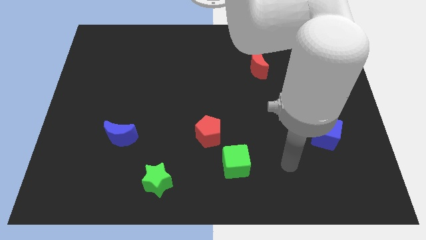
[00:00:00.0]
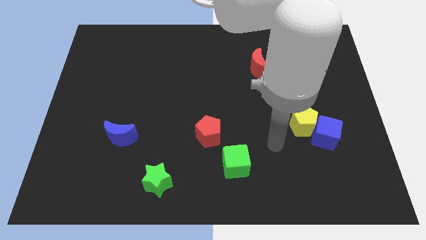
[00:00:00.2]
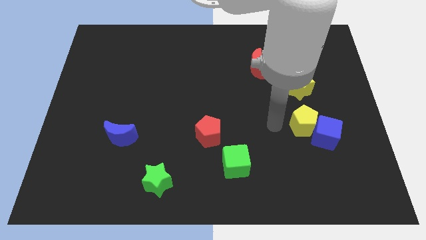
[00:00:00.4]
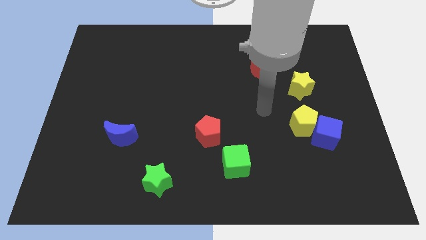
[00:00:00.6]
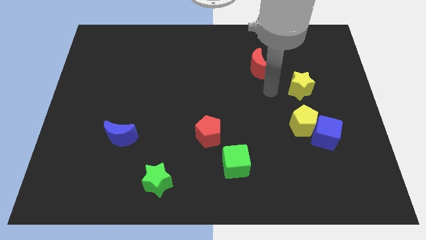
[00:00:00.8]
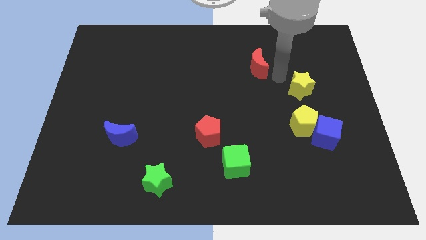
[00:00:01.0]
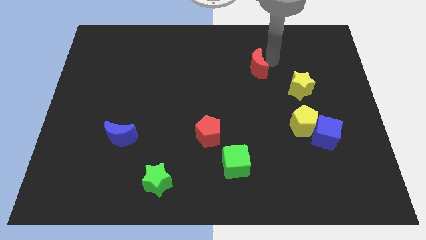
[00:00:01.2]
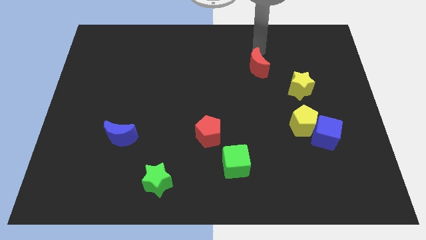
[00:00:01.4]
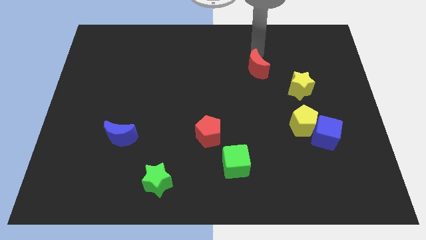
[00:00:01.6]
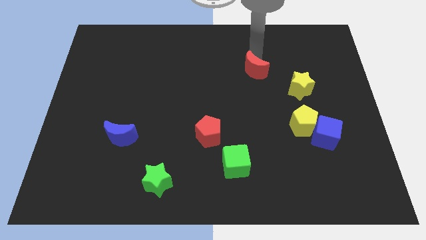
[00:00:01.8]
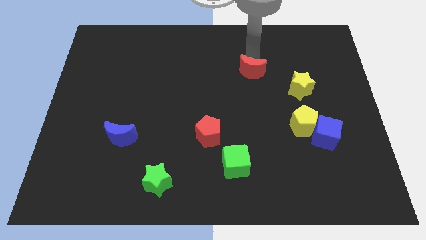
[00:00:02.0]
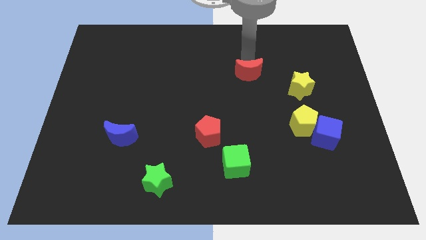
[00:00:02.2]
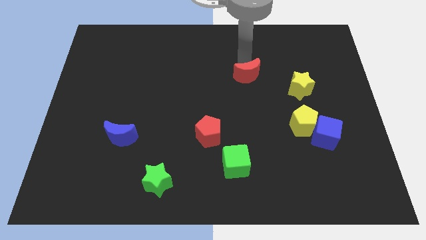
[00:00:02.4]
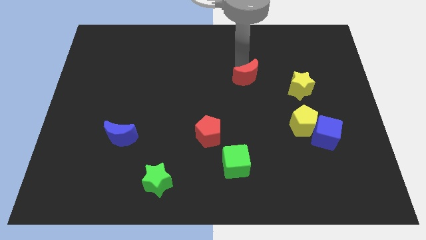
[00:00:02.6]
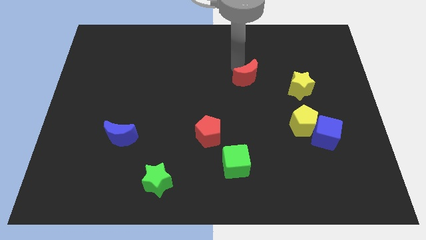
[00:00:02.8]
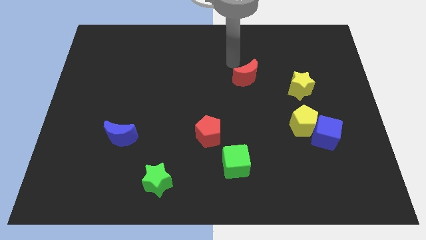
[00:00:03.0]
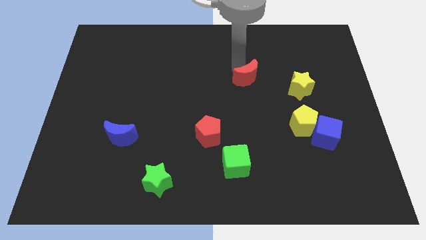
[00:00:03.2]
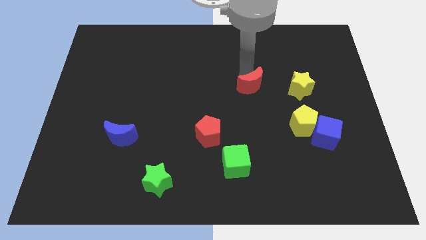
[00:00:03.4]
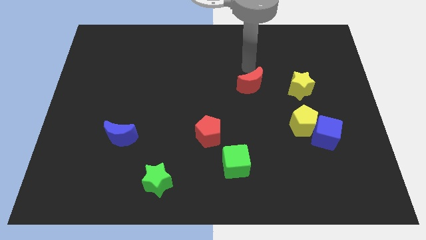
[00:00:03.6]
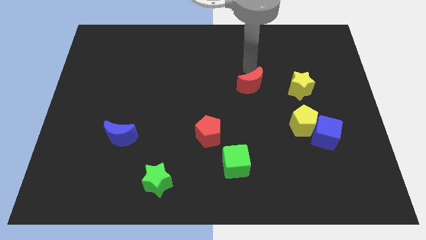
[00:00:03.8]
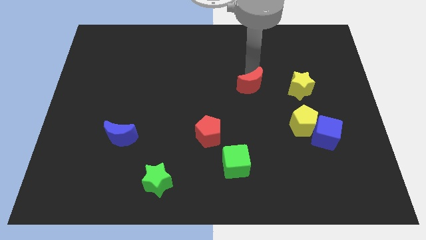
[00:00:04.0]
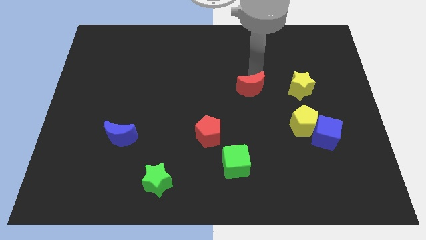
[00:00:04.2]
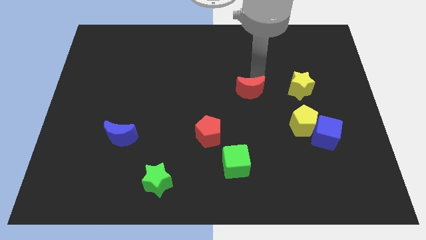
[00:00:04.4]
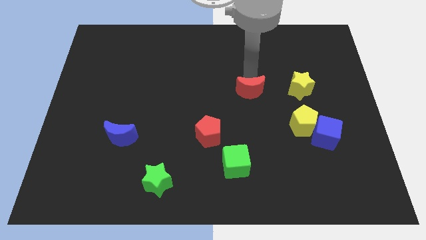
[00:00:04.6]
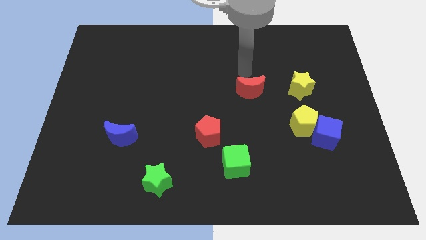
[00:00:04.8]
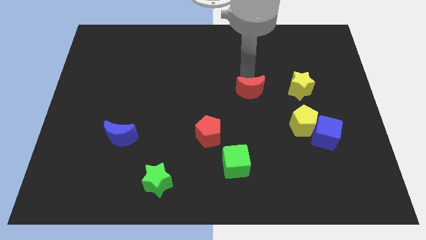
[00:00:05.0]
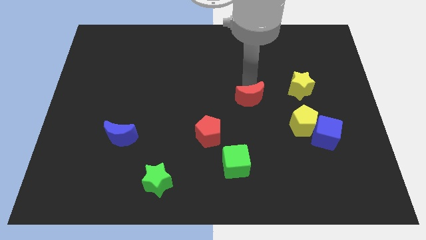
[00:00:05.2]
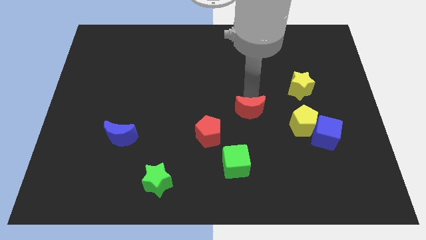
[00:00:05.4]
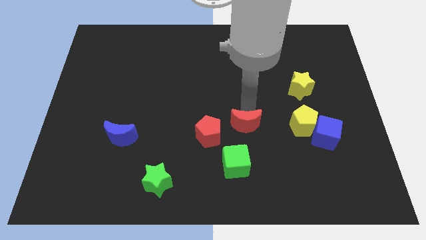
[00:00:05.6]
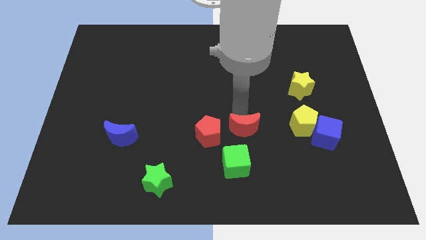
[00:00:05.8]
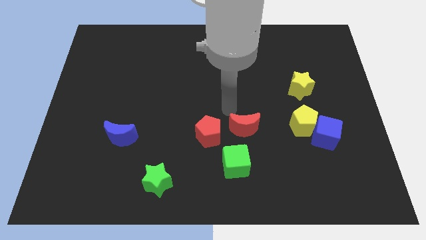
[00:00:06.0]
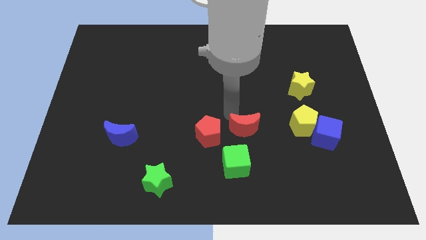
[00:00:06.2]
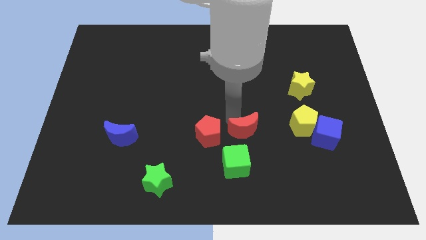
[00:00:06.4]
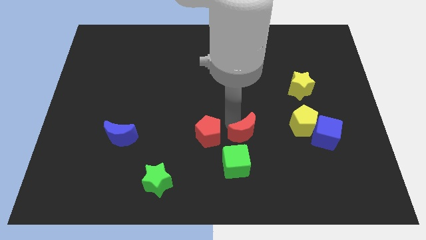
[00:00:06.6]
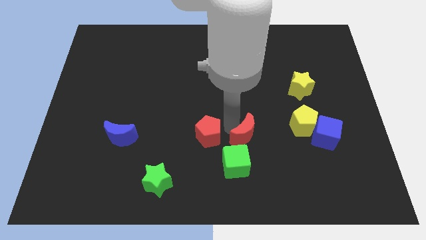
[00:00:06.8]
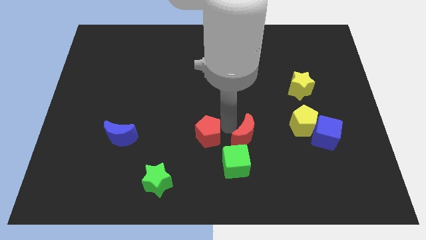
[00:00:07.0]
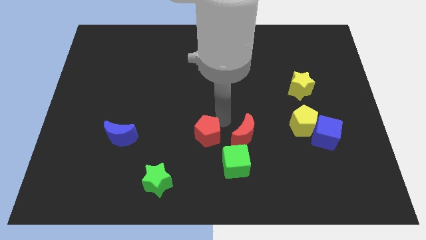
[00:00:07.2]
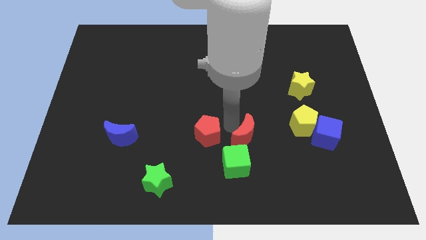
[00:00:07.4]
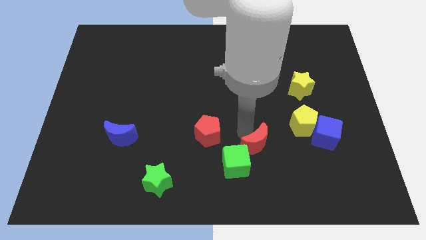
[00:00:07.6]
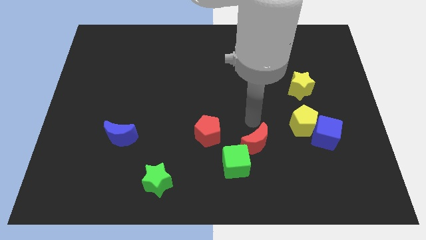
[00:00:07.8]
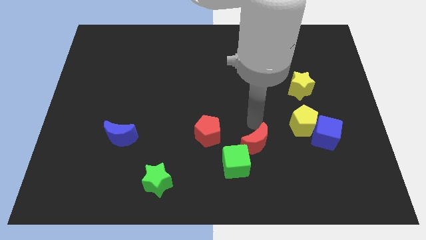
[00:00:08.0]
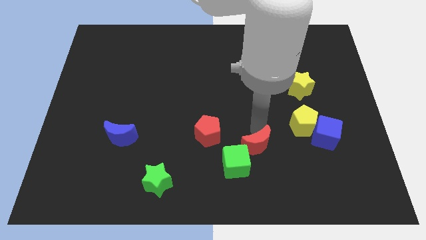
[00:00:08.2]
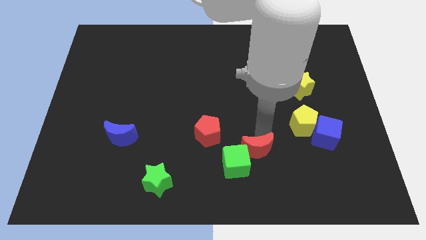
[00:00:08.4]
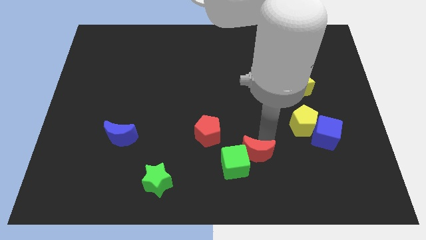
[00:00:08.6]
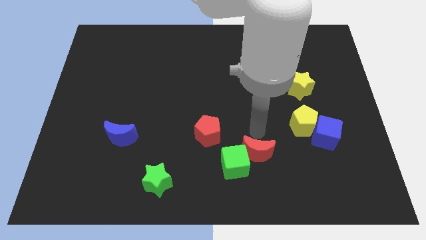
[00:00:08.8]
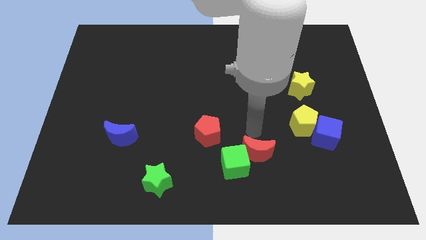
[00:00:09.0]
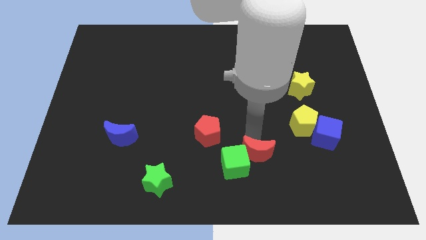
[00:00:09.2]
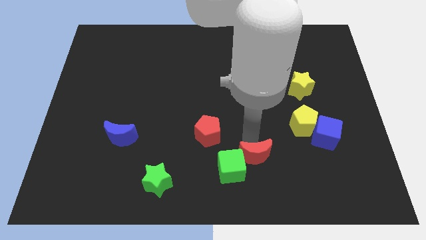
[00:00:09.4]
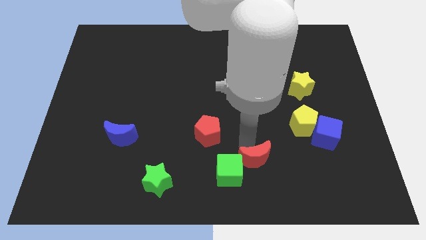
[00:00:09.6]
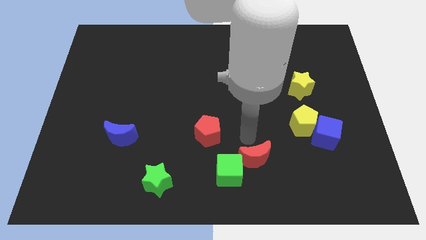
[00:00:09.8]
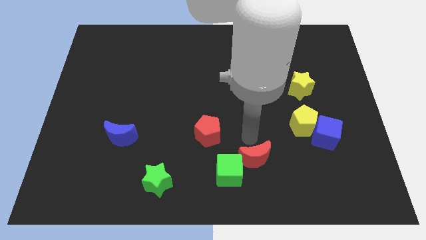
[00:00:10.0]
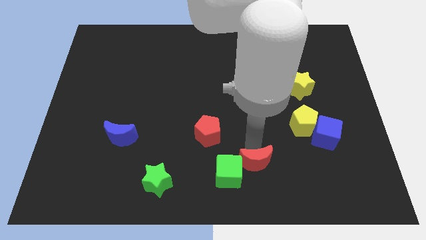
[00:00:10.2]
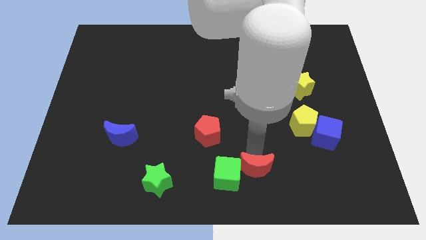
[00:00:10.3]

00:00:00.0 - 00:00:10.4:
put the red moon to the bottom side

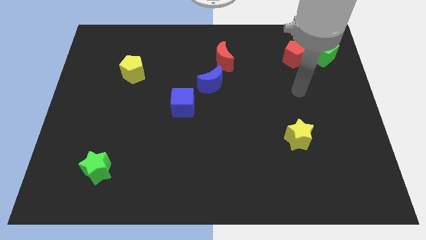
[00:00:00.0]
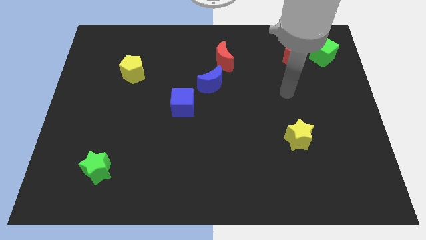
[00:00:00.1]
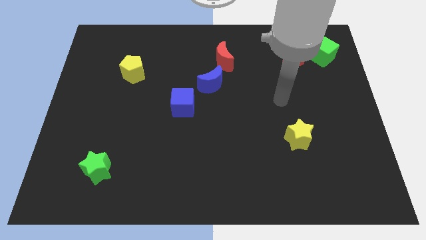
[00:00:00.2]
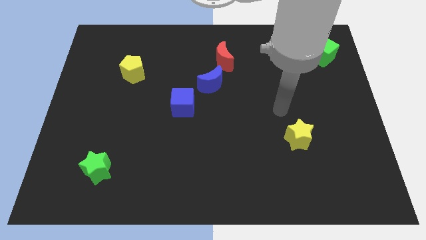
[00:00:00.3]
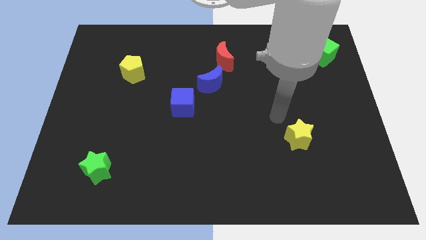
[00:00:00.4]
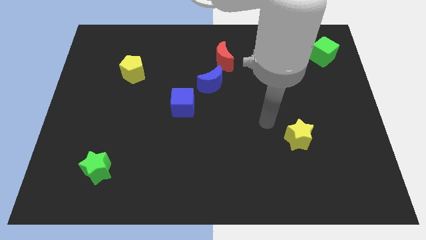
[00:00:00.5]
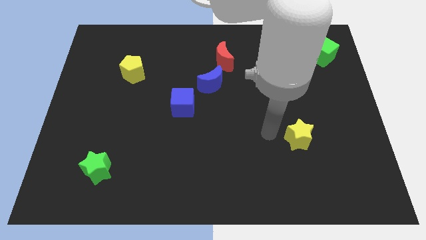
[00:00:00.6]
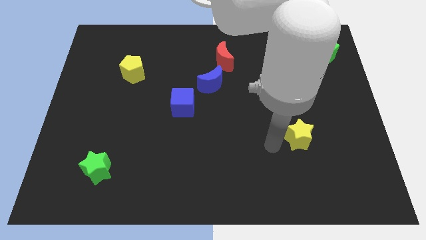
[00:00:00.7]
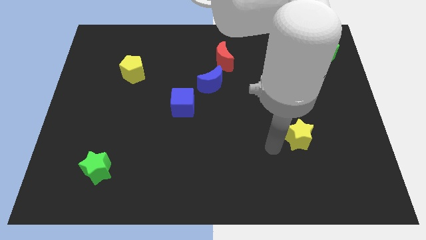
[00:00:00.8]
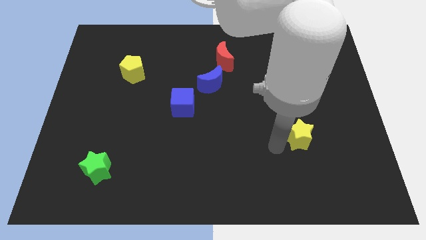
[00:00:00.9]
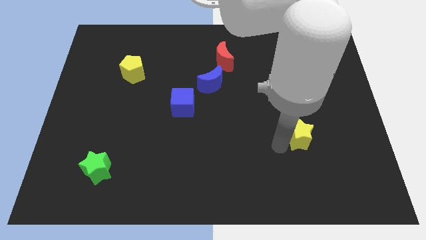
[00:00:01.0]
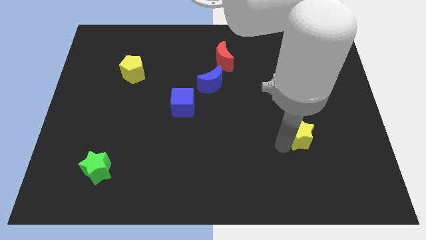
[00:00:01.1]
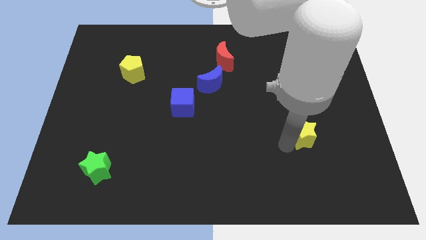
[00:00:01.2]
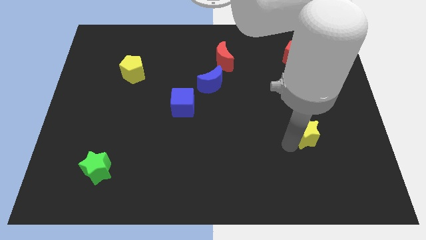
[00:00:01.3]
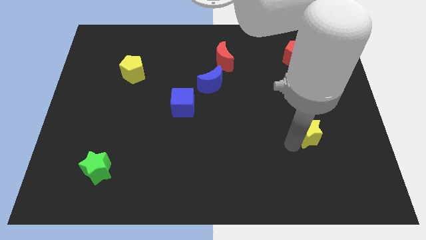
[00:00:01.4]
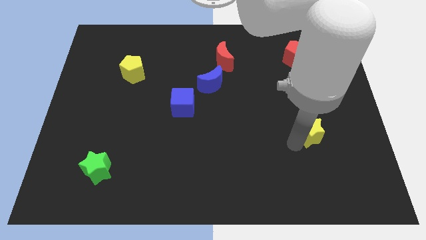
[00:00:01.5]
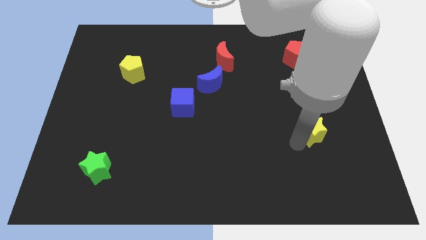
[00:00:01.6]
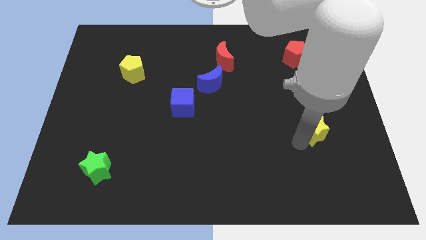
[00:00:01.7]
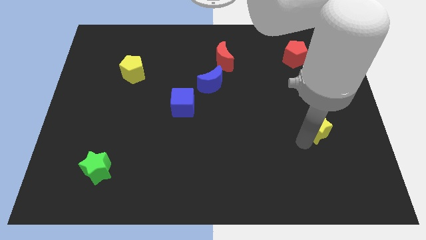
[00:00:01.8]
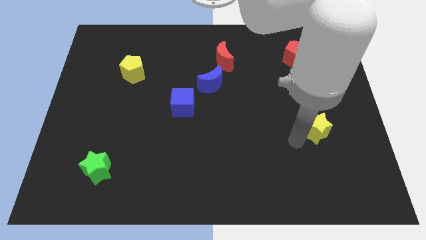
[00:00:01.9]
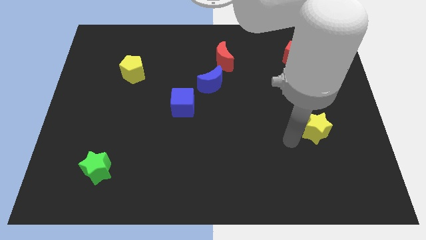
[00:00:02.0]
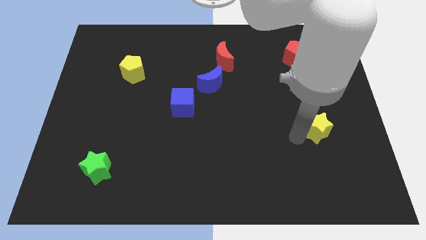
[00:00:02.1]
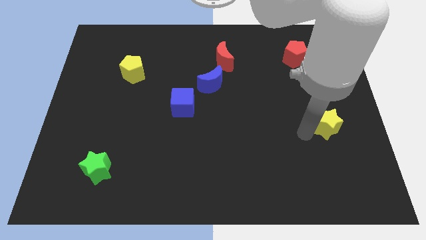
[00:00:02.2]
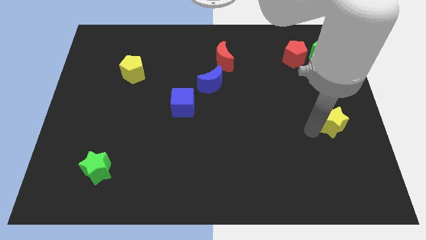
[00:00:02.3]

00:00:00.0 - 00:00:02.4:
slide the yellow star to the right side

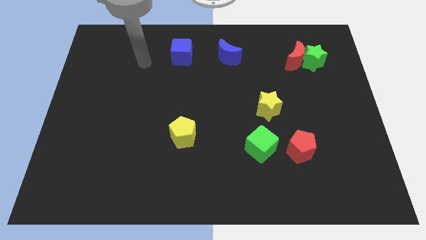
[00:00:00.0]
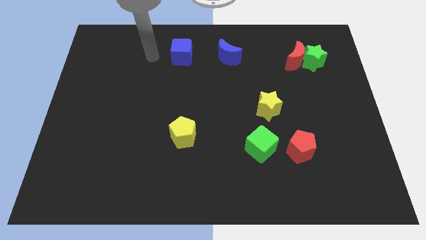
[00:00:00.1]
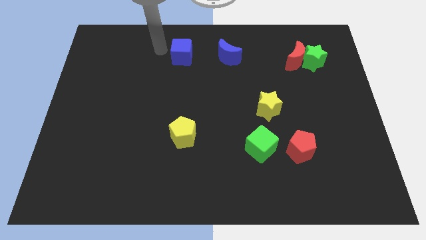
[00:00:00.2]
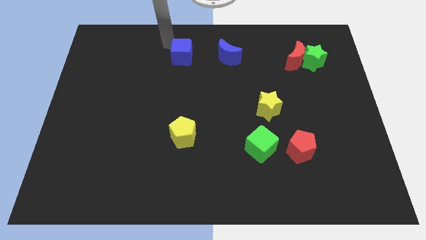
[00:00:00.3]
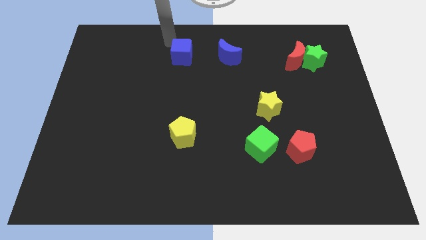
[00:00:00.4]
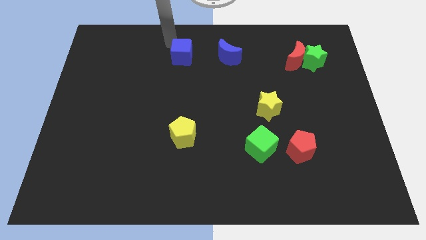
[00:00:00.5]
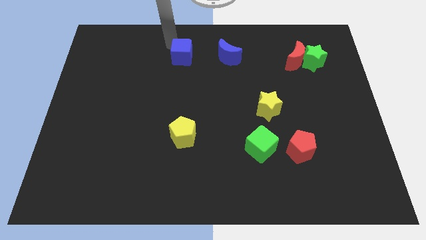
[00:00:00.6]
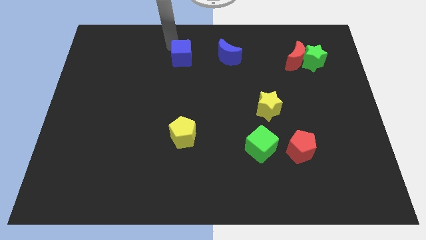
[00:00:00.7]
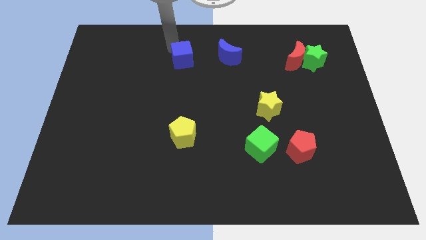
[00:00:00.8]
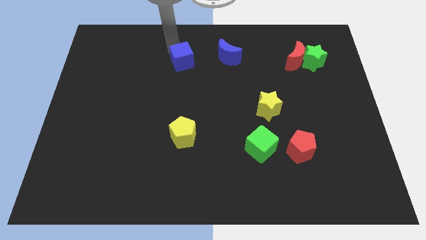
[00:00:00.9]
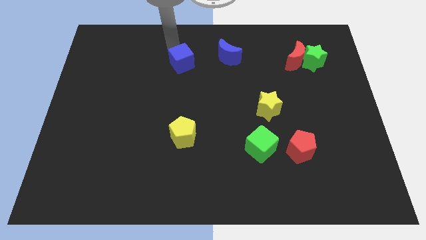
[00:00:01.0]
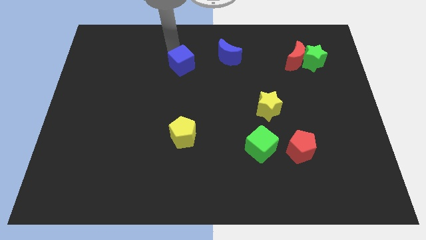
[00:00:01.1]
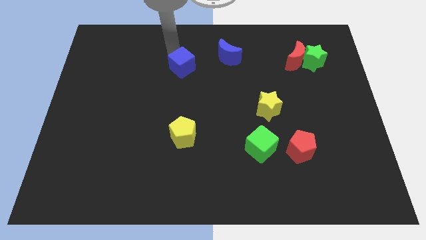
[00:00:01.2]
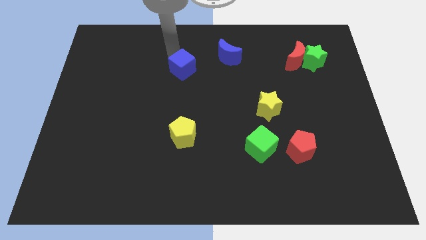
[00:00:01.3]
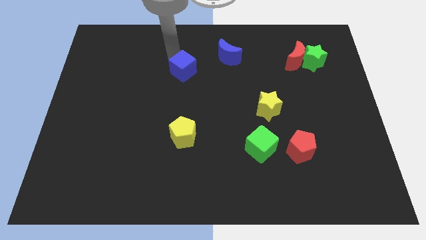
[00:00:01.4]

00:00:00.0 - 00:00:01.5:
move the blue cube to the middle of the board
